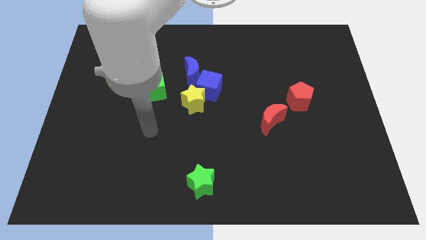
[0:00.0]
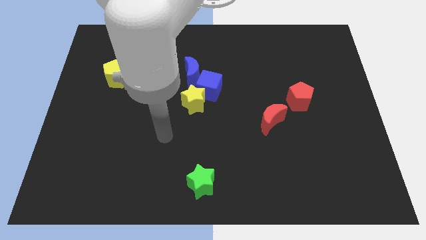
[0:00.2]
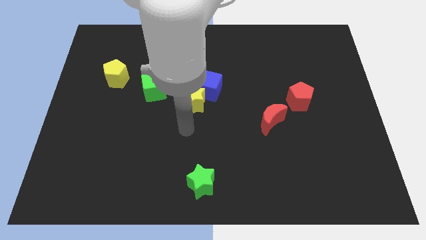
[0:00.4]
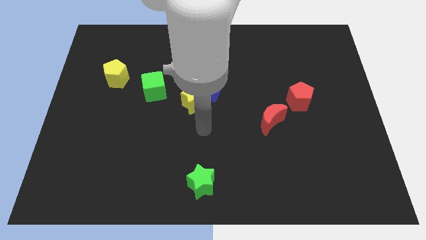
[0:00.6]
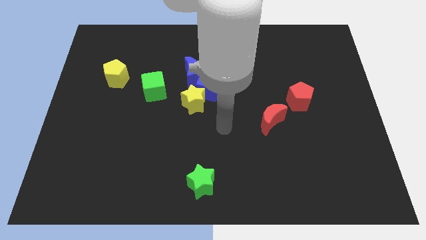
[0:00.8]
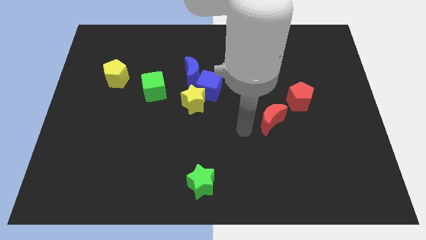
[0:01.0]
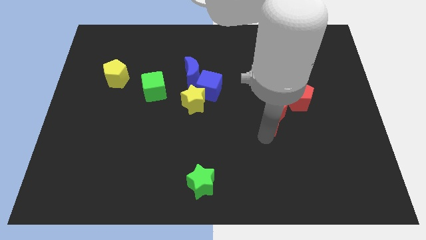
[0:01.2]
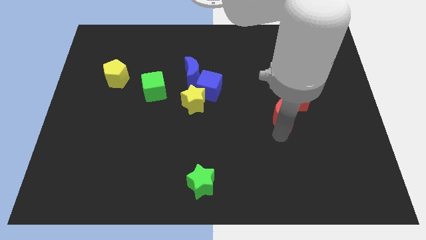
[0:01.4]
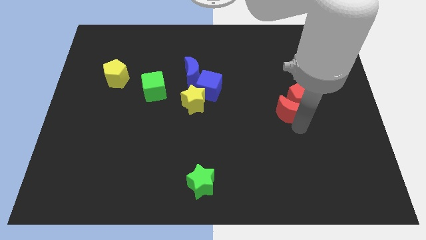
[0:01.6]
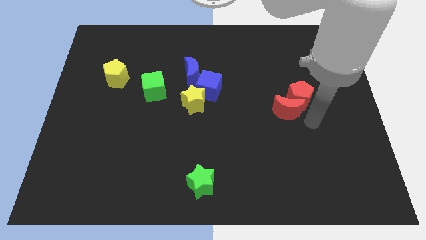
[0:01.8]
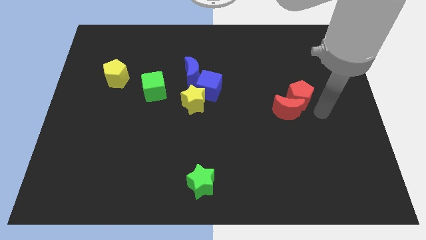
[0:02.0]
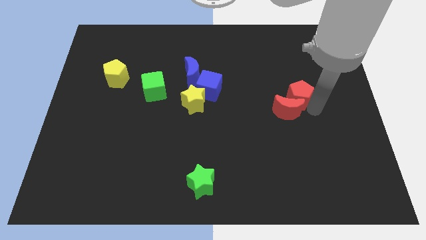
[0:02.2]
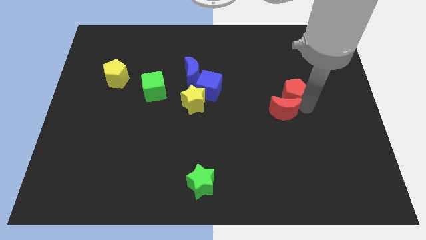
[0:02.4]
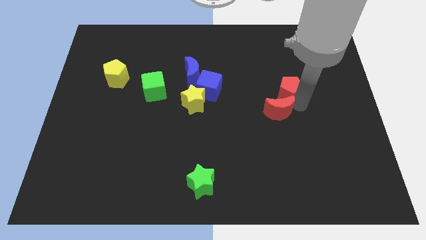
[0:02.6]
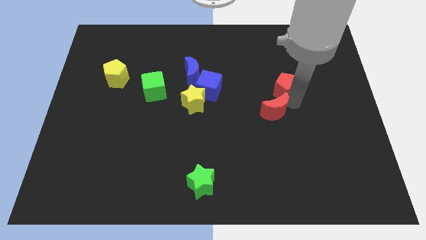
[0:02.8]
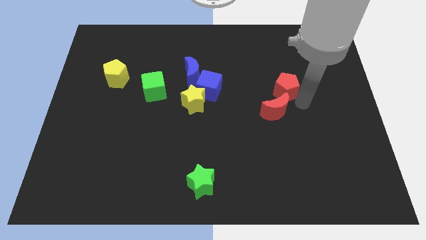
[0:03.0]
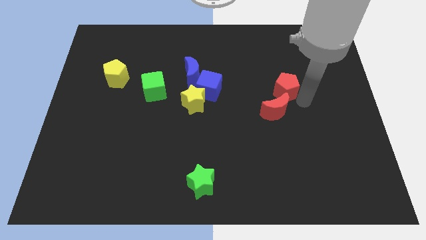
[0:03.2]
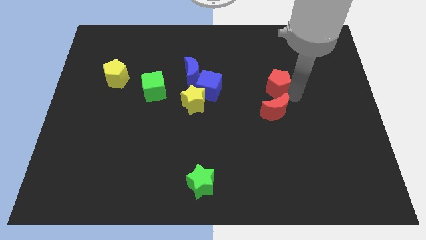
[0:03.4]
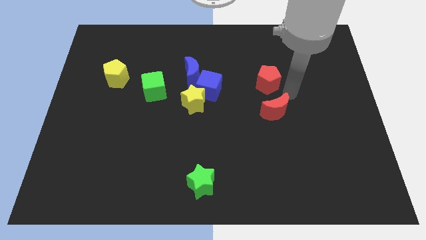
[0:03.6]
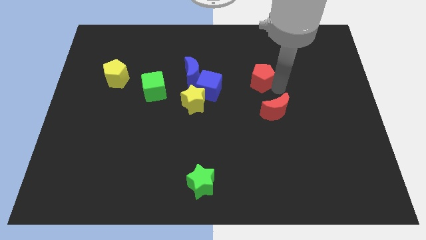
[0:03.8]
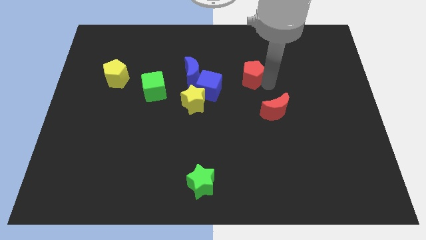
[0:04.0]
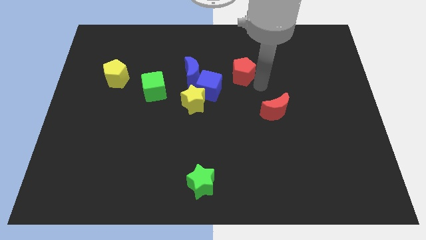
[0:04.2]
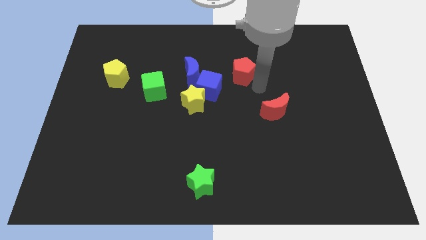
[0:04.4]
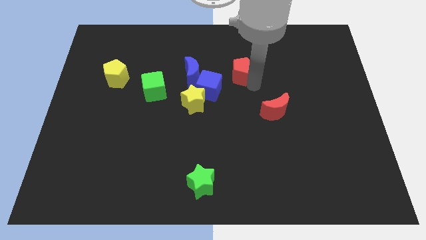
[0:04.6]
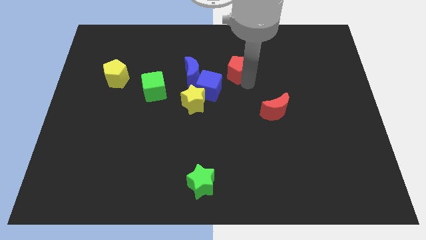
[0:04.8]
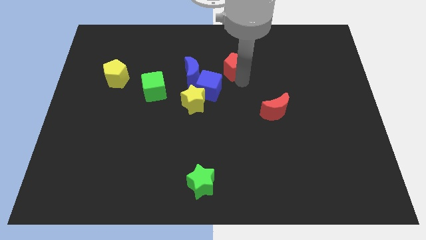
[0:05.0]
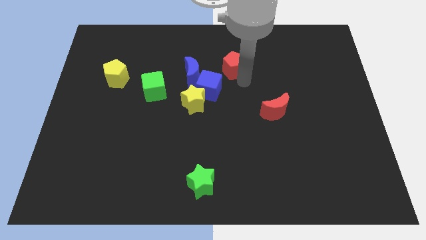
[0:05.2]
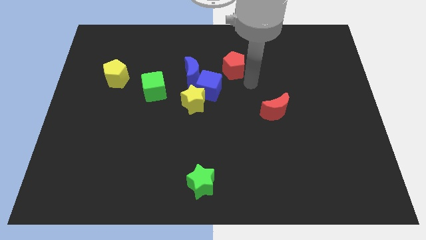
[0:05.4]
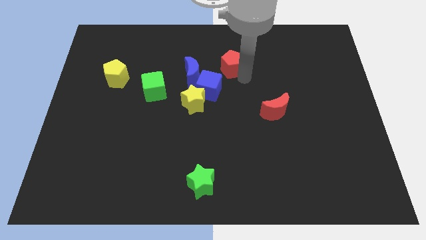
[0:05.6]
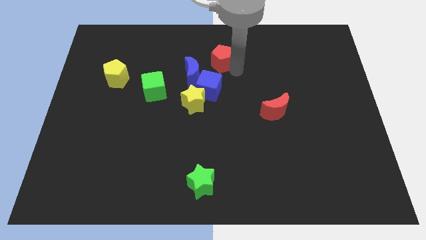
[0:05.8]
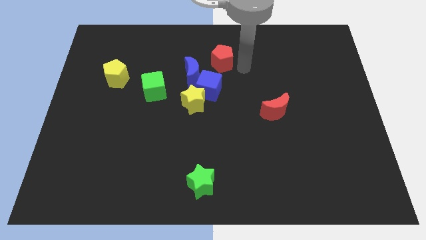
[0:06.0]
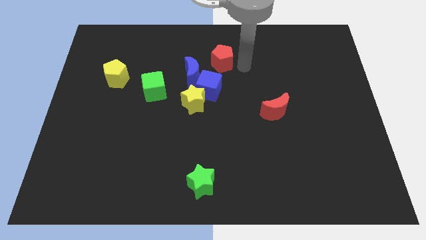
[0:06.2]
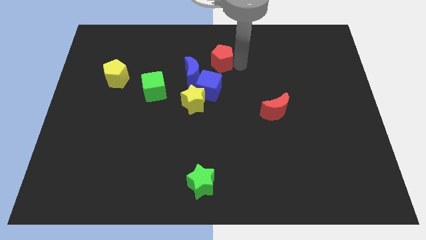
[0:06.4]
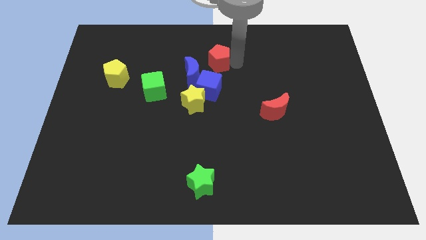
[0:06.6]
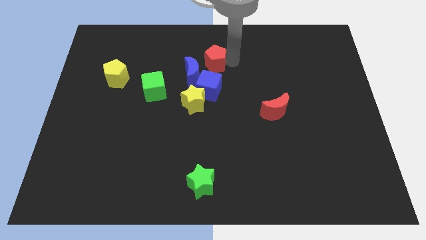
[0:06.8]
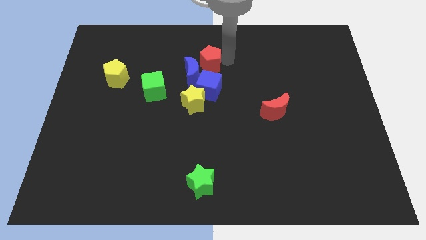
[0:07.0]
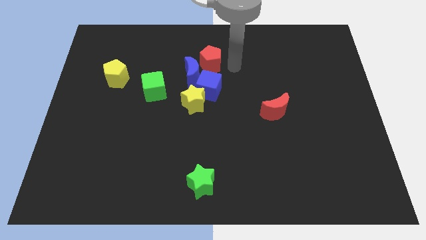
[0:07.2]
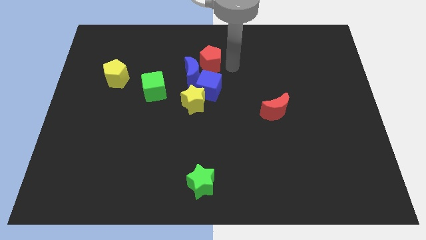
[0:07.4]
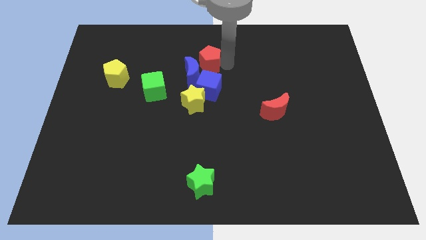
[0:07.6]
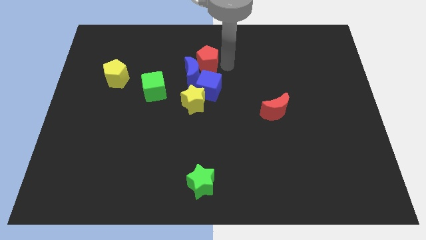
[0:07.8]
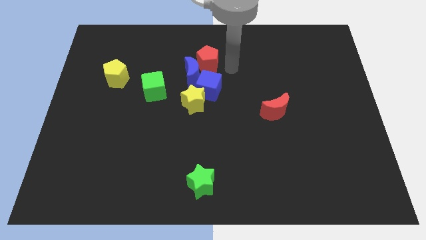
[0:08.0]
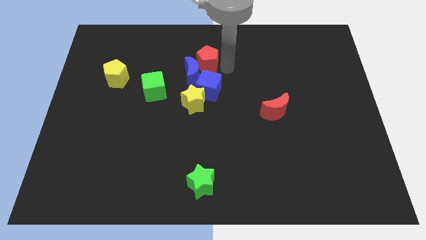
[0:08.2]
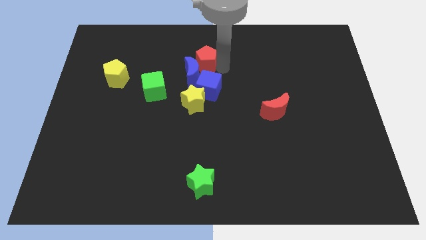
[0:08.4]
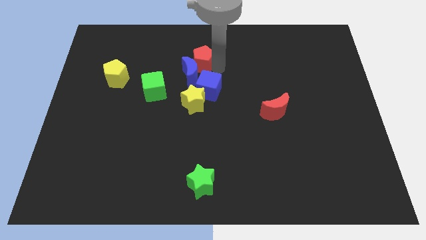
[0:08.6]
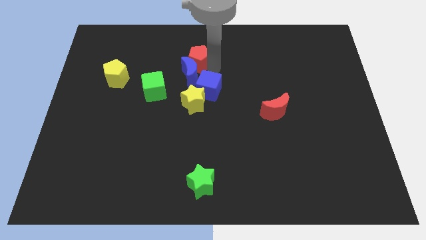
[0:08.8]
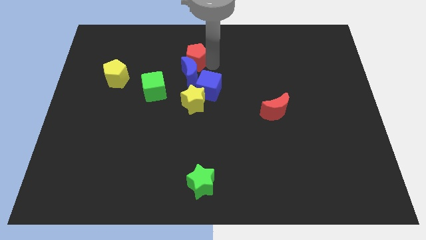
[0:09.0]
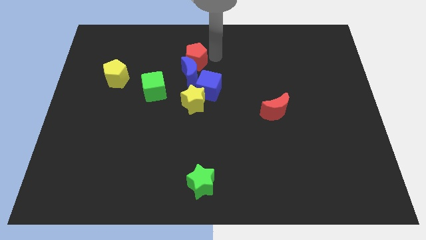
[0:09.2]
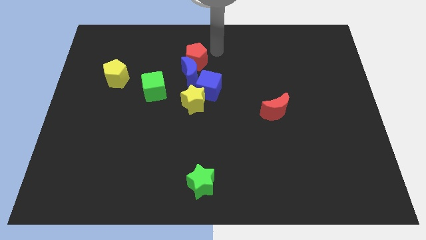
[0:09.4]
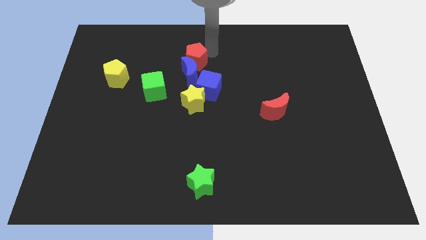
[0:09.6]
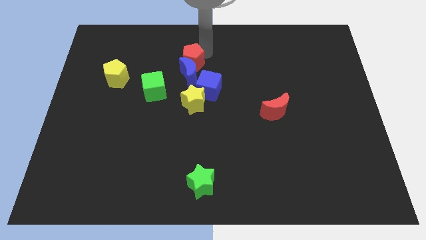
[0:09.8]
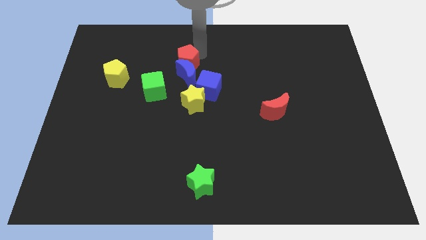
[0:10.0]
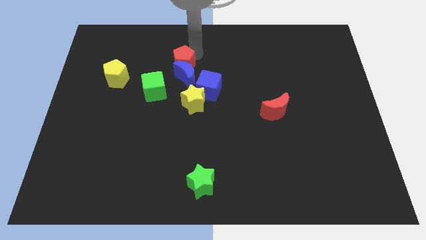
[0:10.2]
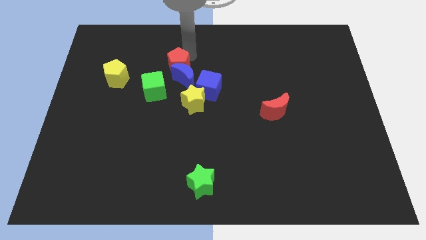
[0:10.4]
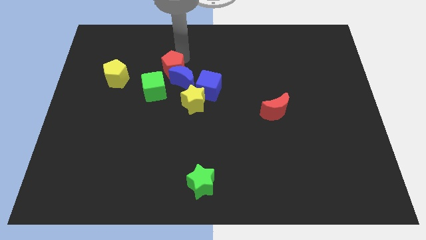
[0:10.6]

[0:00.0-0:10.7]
put the red pentagon left of the blue moon

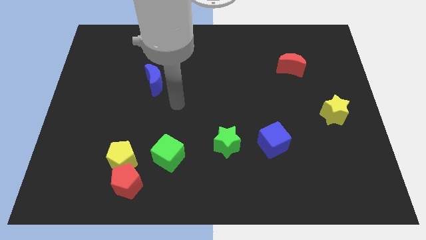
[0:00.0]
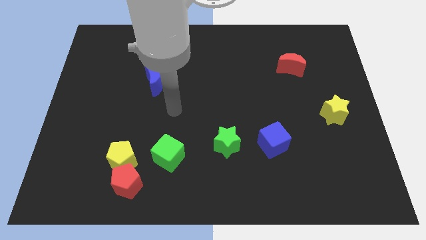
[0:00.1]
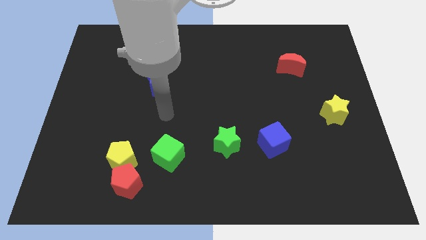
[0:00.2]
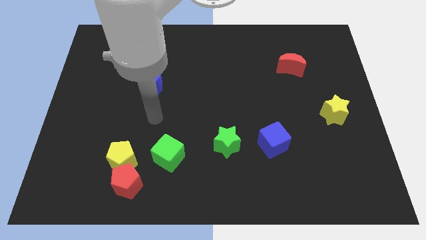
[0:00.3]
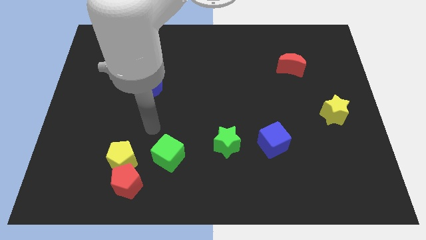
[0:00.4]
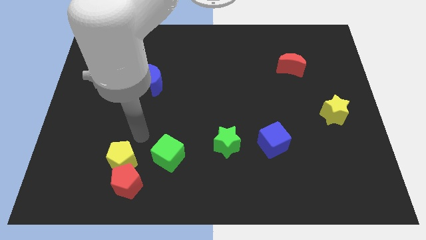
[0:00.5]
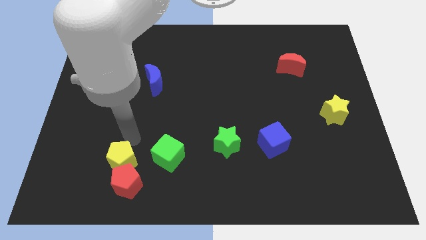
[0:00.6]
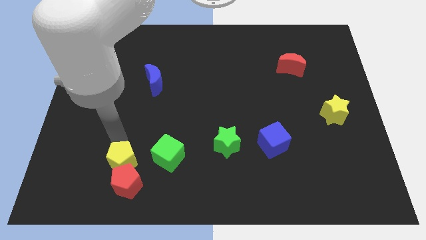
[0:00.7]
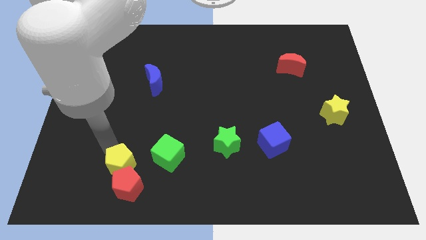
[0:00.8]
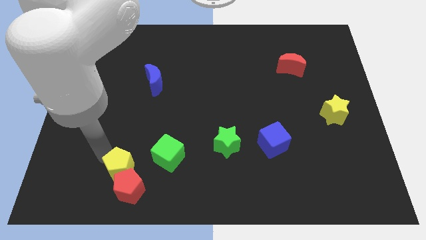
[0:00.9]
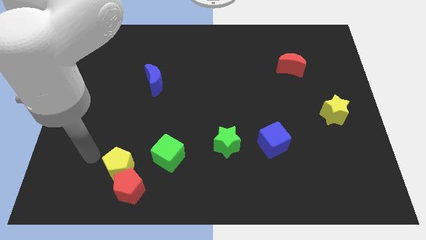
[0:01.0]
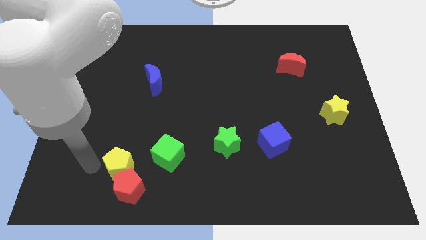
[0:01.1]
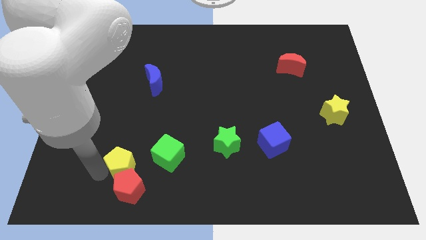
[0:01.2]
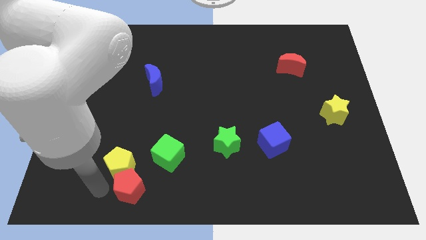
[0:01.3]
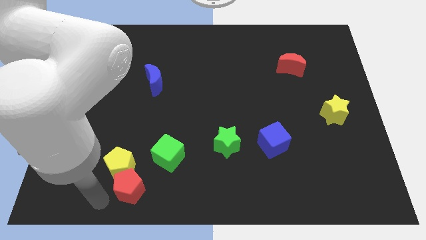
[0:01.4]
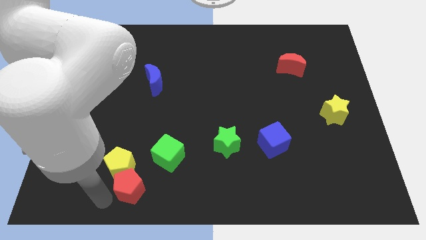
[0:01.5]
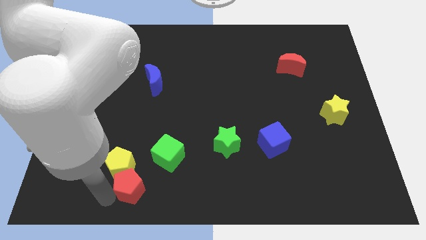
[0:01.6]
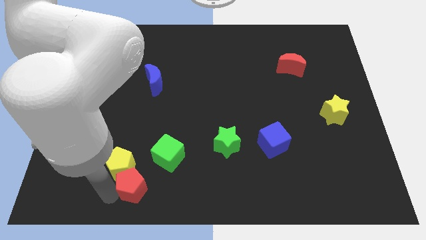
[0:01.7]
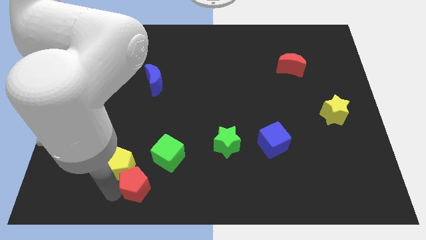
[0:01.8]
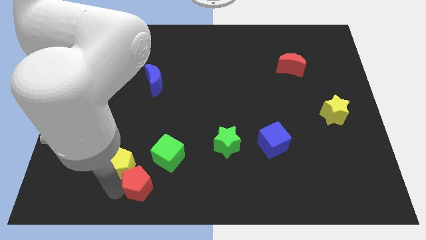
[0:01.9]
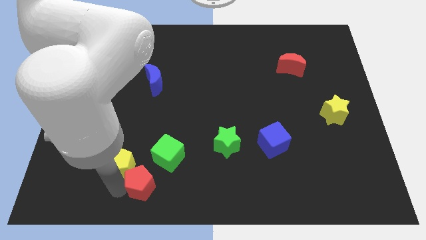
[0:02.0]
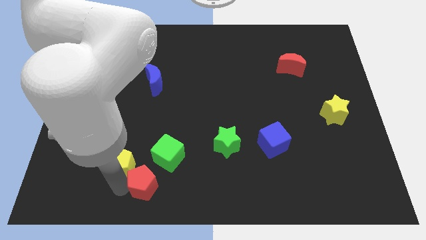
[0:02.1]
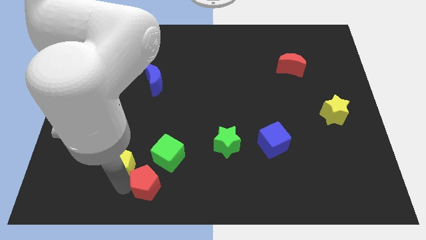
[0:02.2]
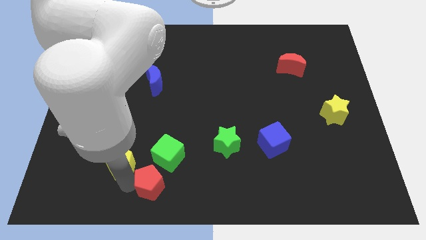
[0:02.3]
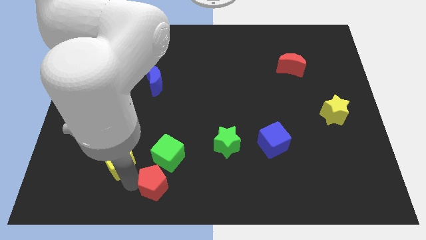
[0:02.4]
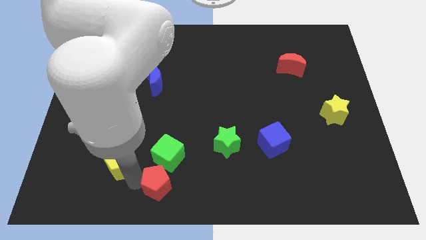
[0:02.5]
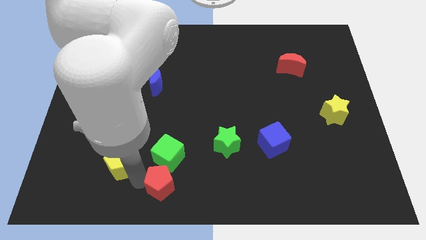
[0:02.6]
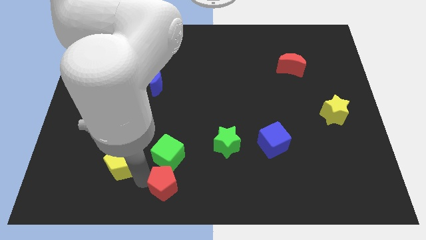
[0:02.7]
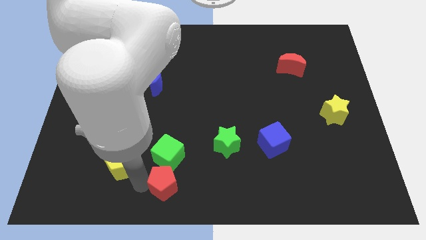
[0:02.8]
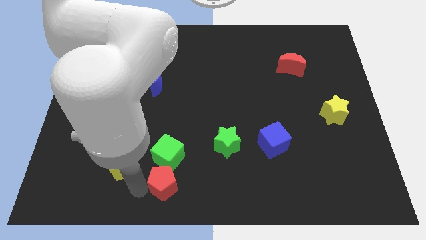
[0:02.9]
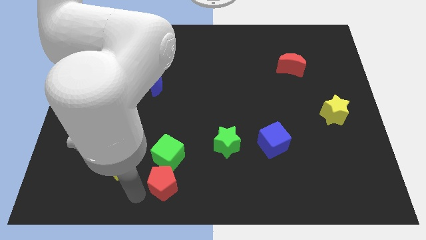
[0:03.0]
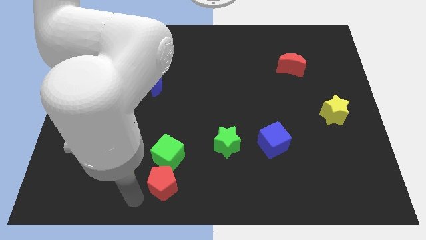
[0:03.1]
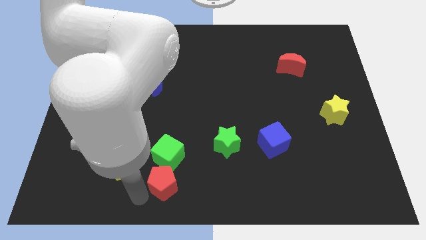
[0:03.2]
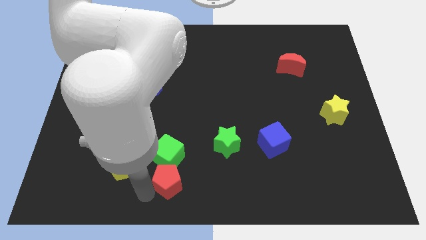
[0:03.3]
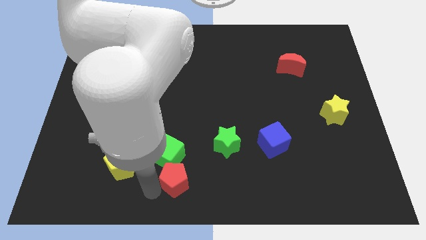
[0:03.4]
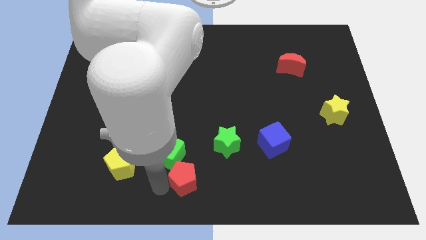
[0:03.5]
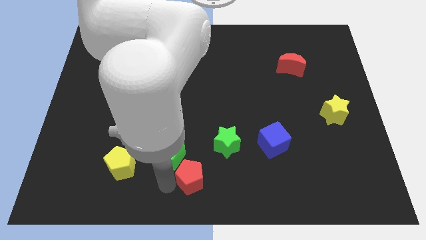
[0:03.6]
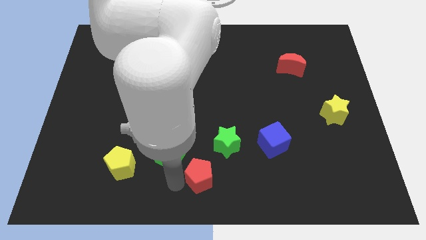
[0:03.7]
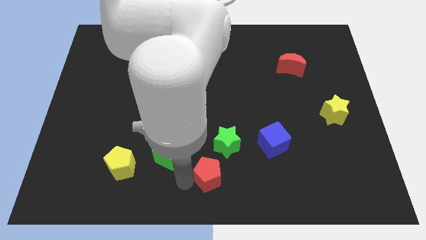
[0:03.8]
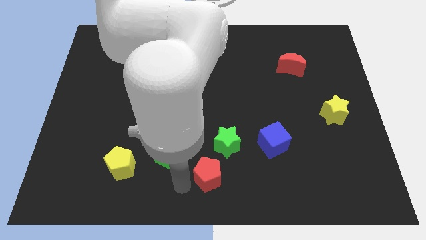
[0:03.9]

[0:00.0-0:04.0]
put the red pentagon right of the green cube
